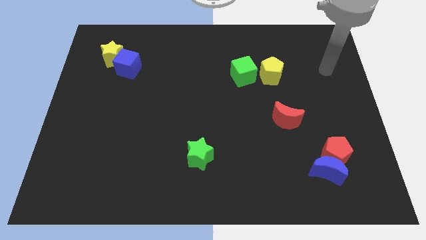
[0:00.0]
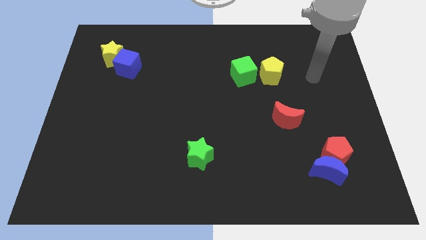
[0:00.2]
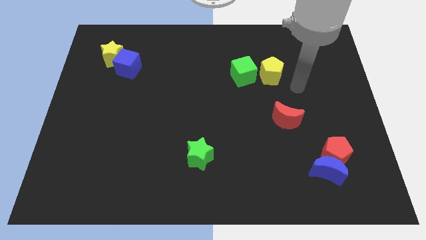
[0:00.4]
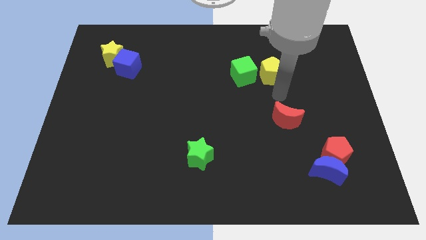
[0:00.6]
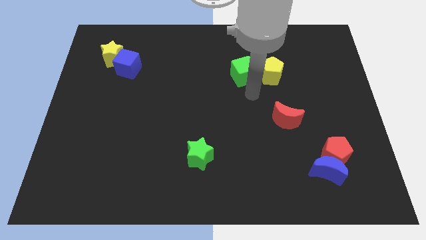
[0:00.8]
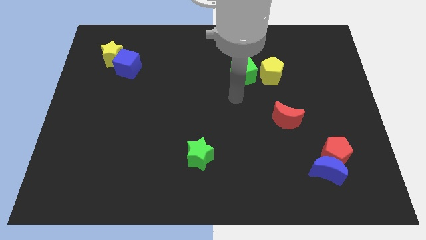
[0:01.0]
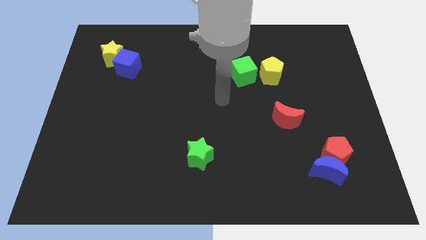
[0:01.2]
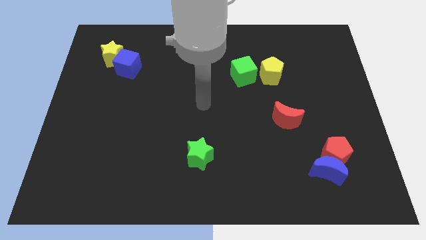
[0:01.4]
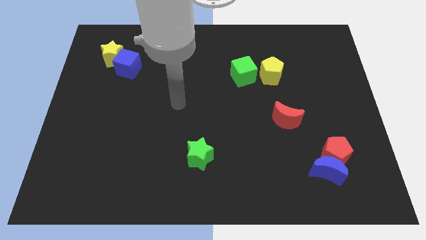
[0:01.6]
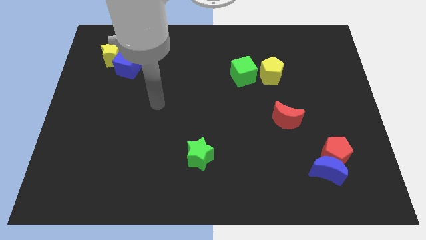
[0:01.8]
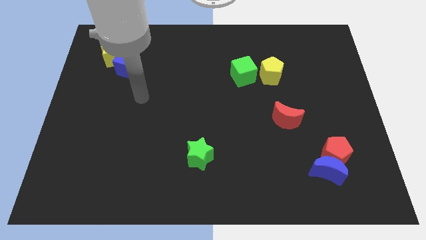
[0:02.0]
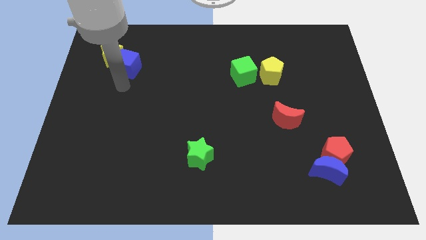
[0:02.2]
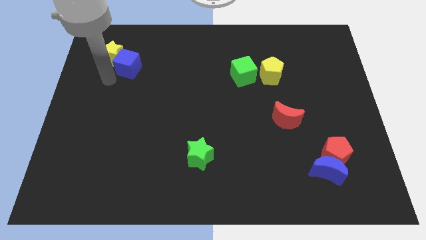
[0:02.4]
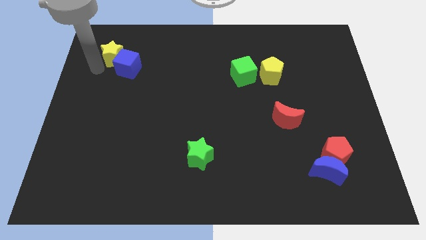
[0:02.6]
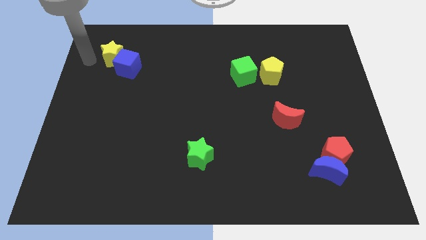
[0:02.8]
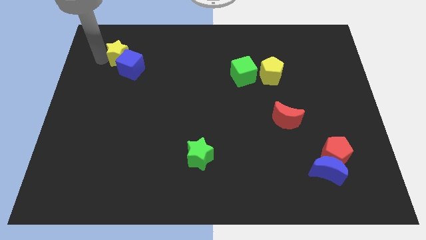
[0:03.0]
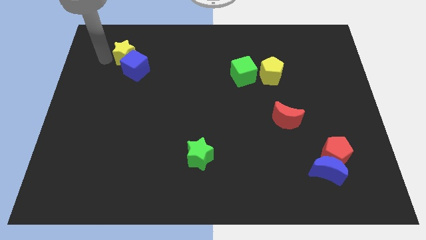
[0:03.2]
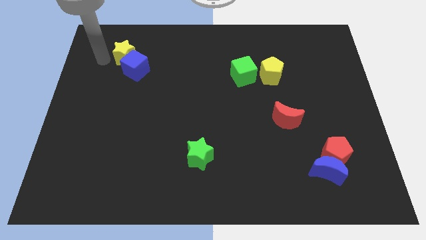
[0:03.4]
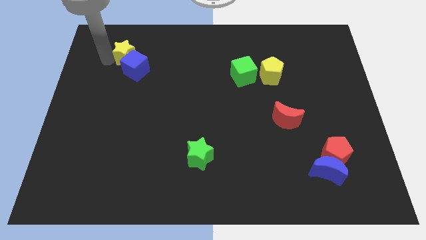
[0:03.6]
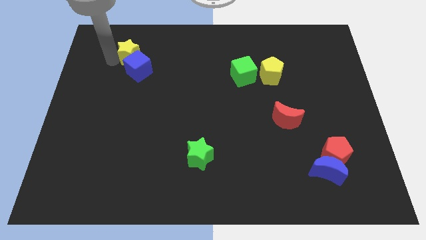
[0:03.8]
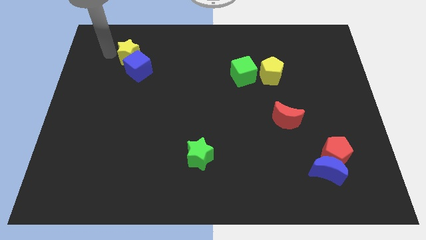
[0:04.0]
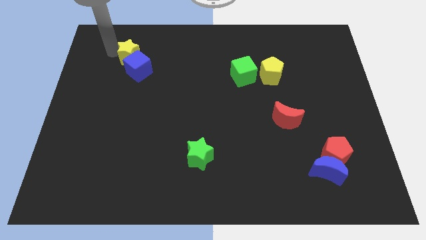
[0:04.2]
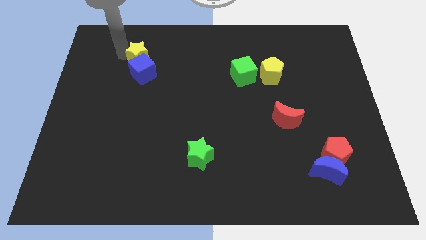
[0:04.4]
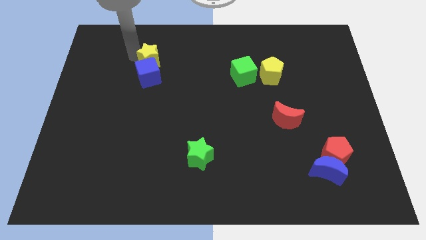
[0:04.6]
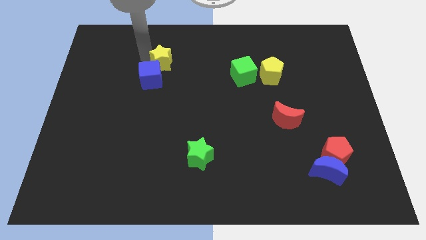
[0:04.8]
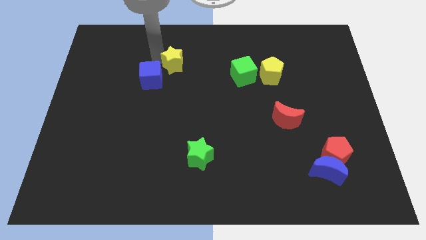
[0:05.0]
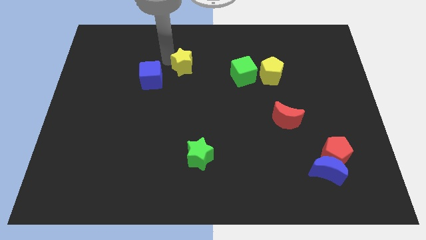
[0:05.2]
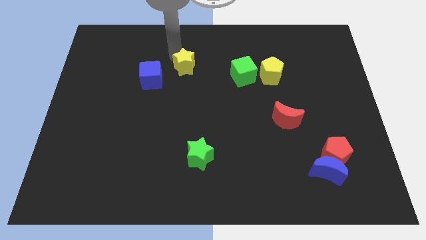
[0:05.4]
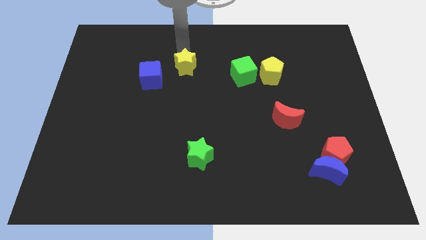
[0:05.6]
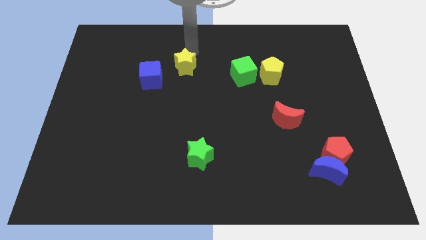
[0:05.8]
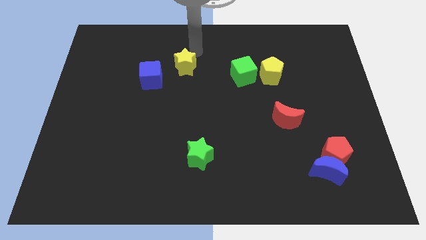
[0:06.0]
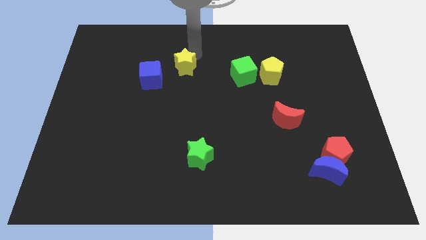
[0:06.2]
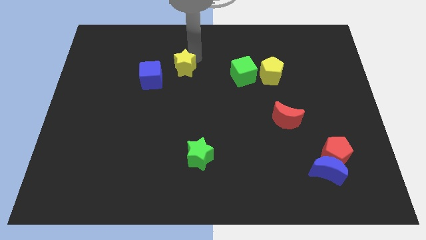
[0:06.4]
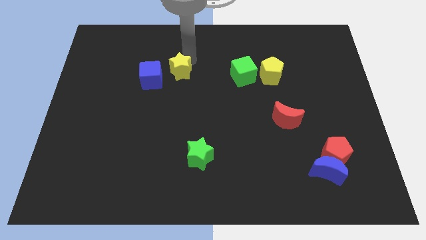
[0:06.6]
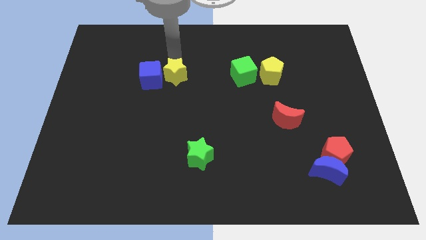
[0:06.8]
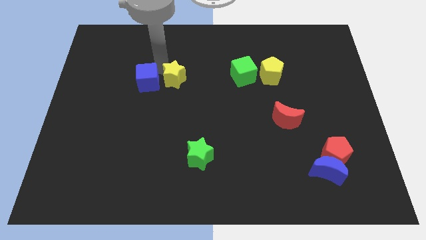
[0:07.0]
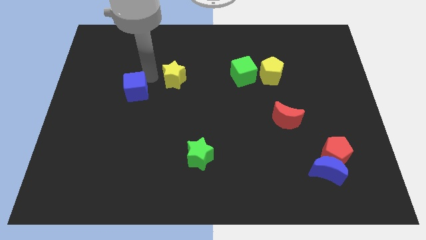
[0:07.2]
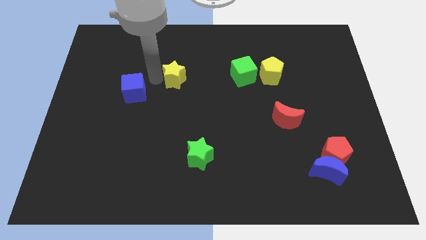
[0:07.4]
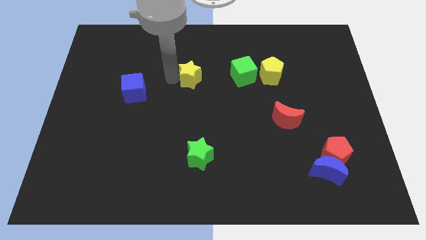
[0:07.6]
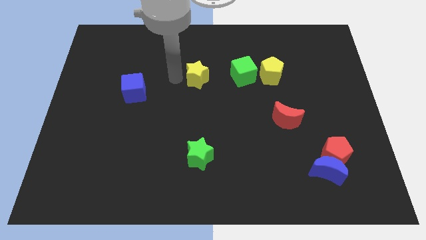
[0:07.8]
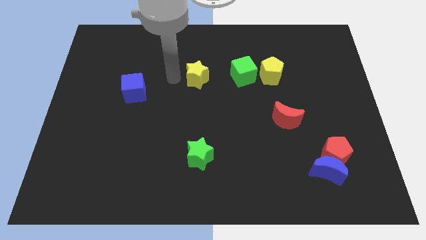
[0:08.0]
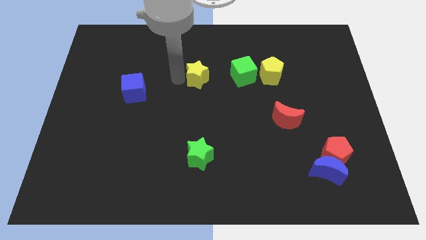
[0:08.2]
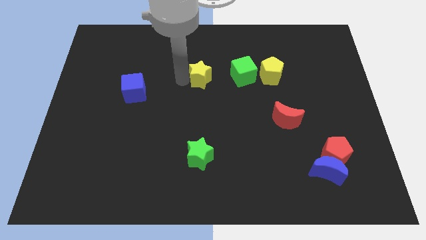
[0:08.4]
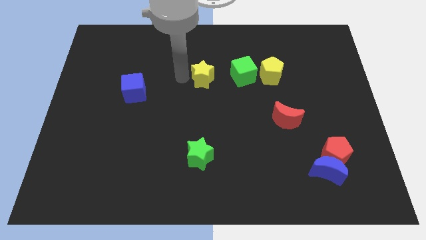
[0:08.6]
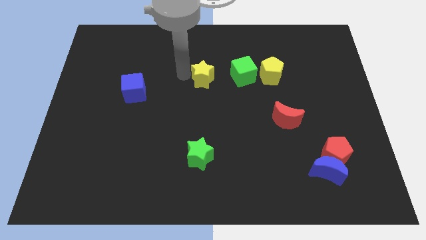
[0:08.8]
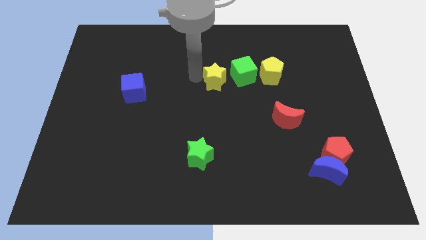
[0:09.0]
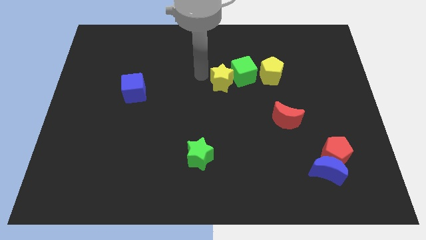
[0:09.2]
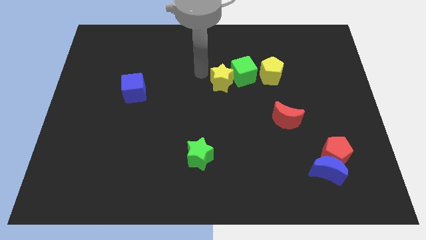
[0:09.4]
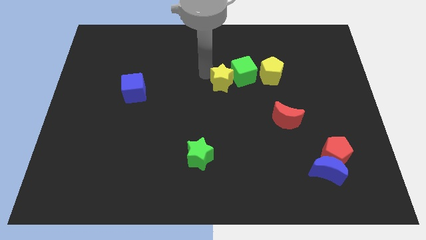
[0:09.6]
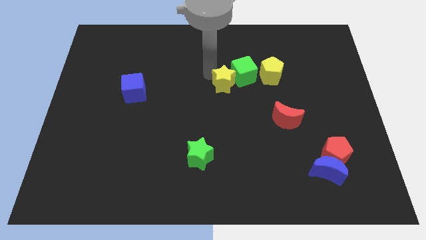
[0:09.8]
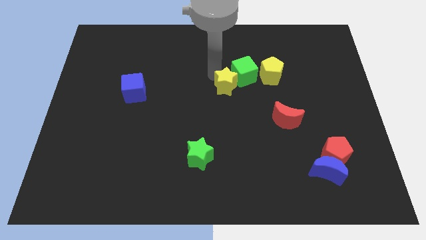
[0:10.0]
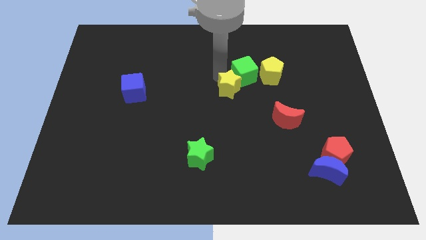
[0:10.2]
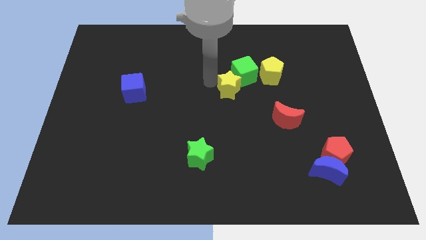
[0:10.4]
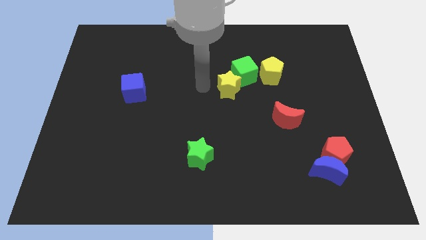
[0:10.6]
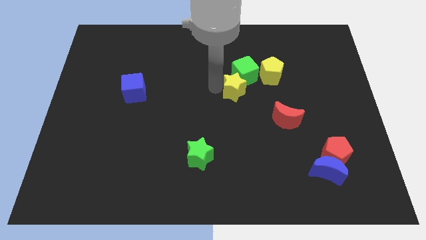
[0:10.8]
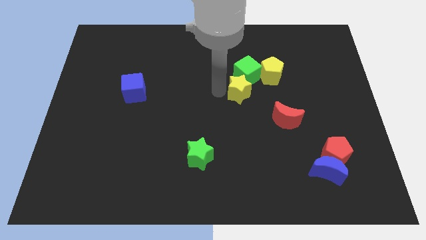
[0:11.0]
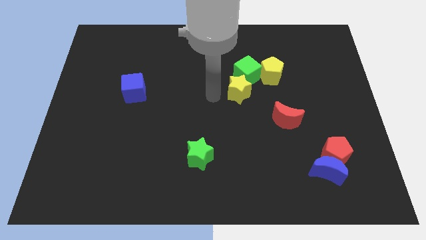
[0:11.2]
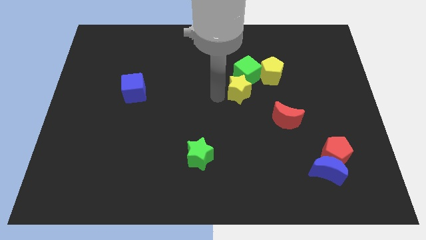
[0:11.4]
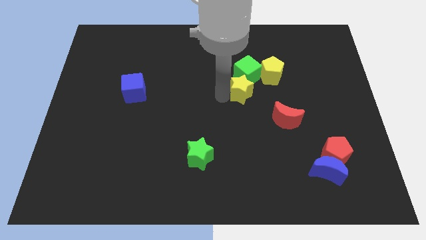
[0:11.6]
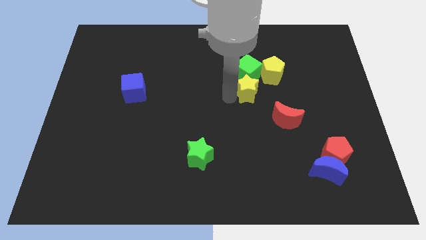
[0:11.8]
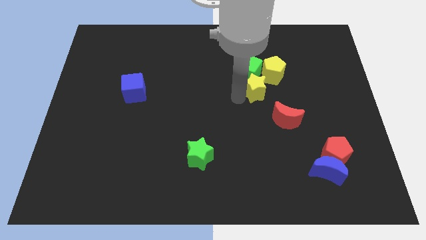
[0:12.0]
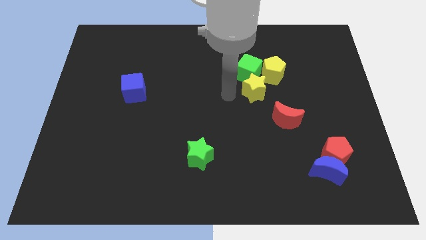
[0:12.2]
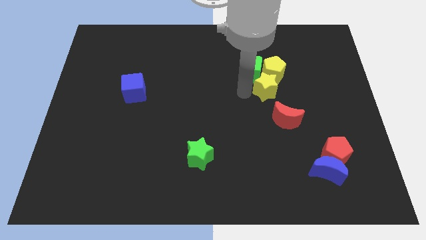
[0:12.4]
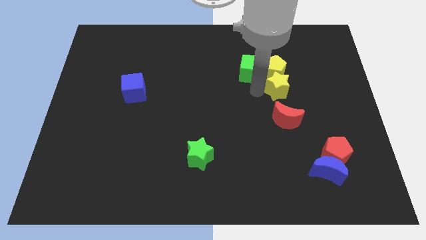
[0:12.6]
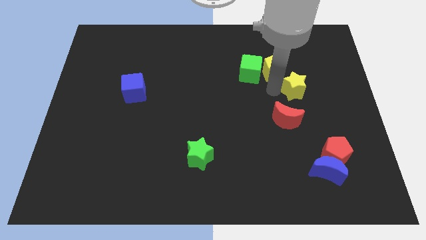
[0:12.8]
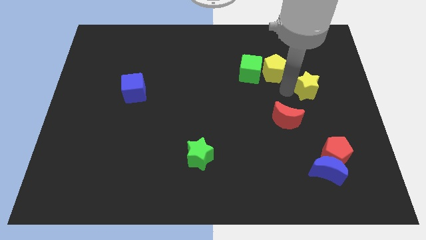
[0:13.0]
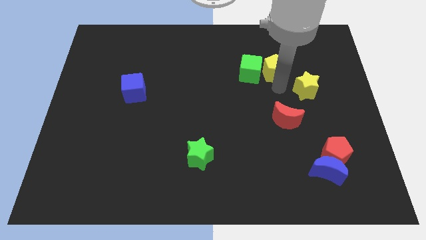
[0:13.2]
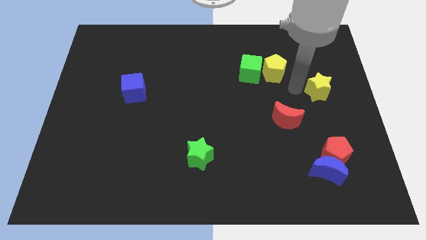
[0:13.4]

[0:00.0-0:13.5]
move the yellow star to the center right

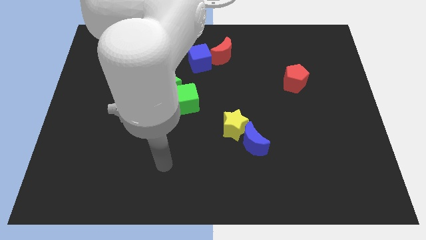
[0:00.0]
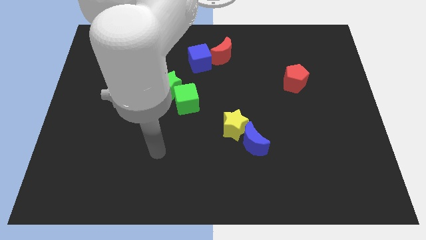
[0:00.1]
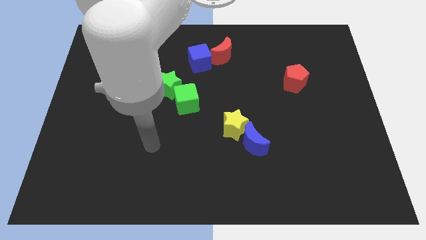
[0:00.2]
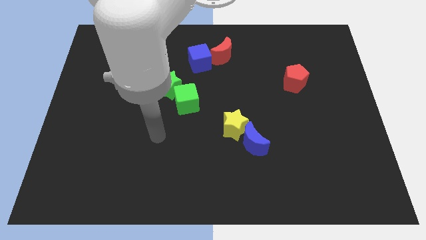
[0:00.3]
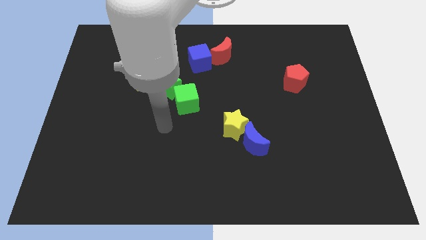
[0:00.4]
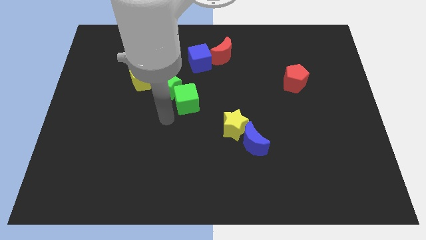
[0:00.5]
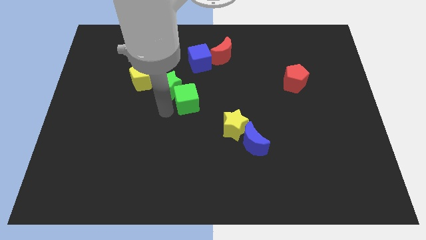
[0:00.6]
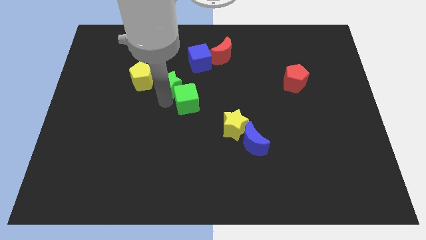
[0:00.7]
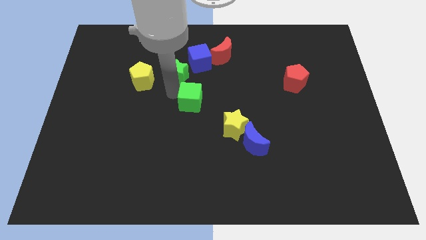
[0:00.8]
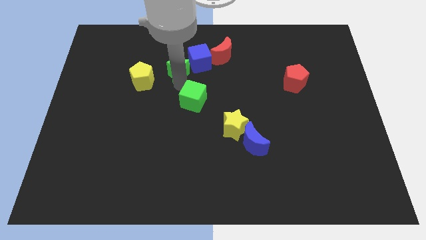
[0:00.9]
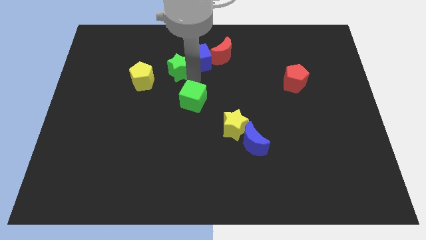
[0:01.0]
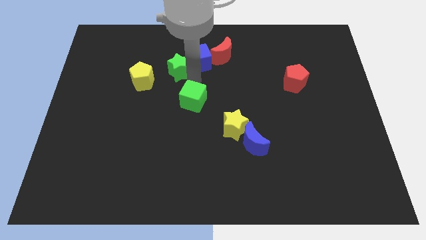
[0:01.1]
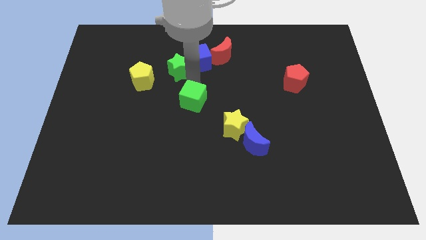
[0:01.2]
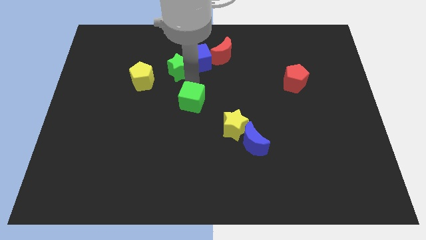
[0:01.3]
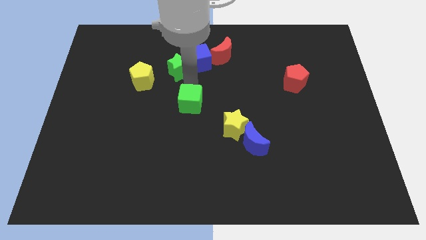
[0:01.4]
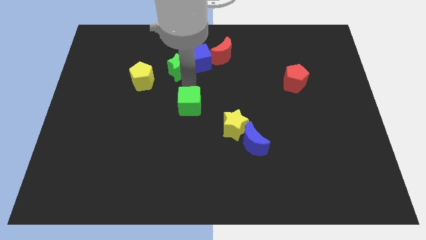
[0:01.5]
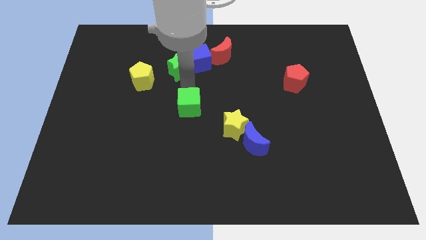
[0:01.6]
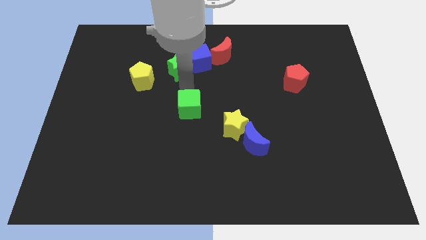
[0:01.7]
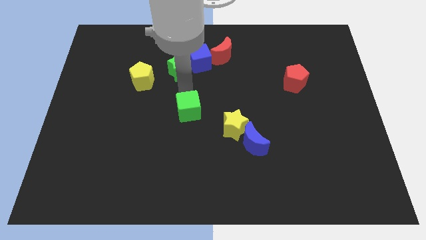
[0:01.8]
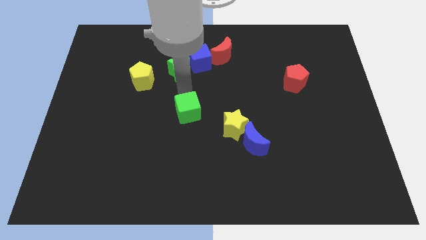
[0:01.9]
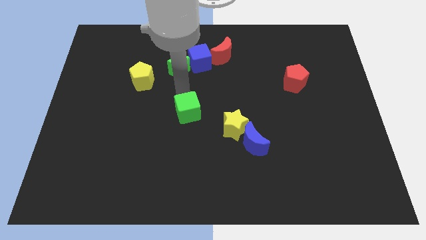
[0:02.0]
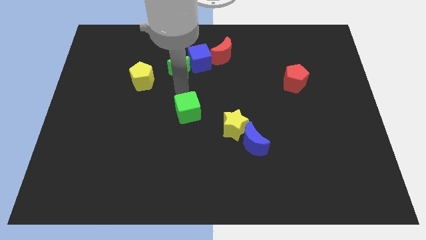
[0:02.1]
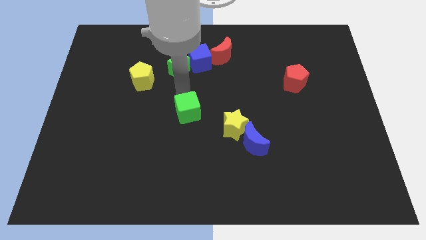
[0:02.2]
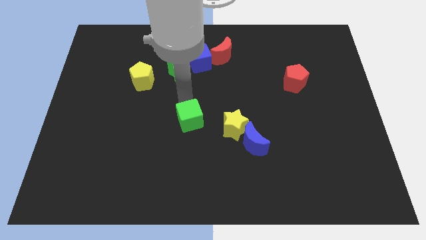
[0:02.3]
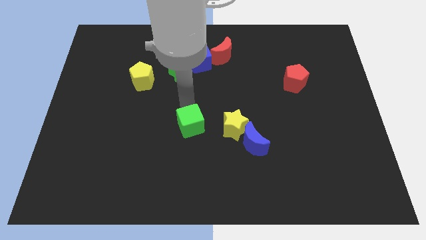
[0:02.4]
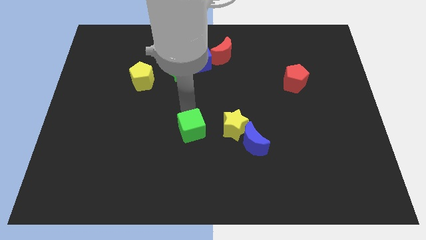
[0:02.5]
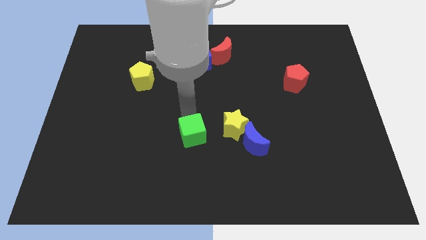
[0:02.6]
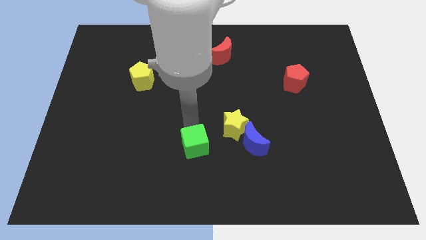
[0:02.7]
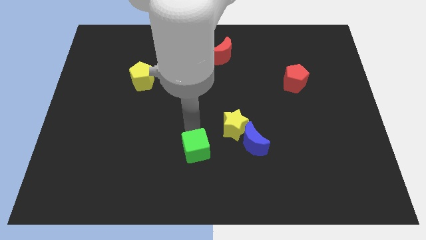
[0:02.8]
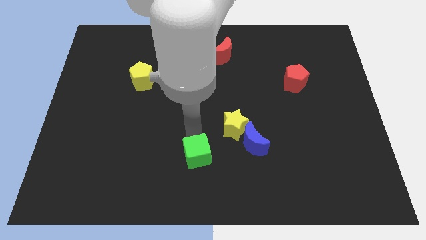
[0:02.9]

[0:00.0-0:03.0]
slide the green cube to the bottom
